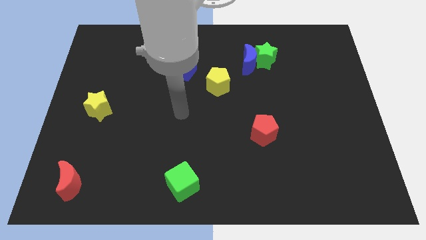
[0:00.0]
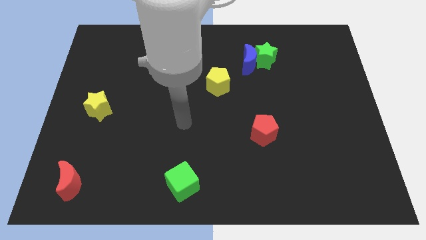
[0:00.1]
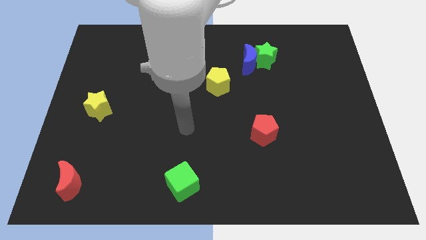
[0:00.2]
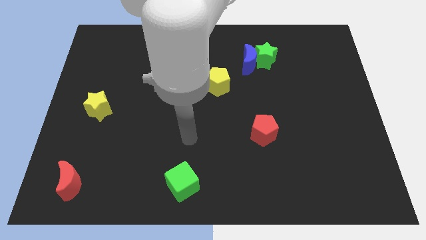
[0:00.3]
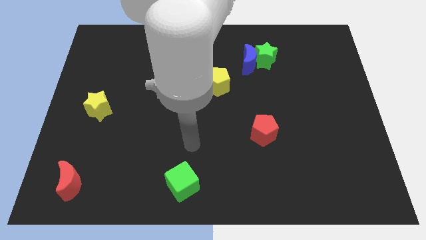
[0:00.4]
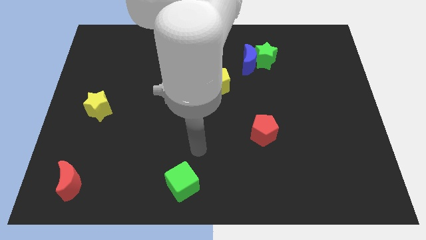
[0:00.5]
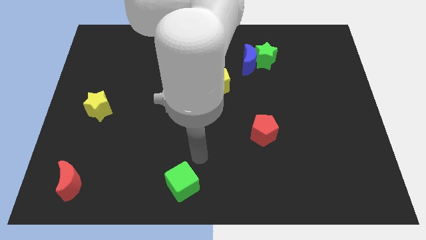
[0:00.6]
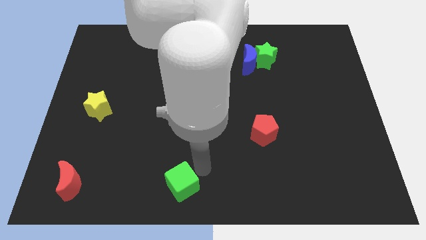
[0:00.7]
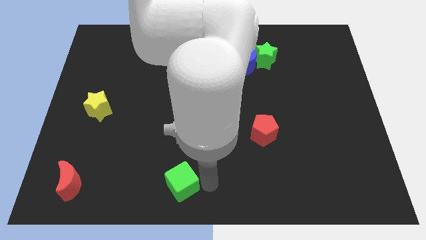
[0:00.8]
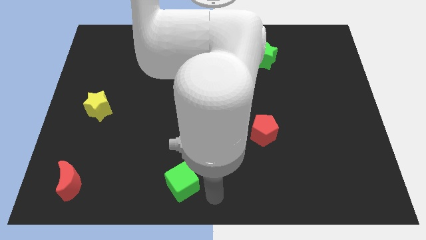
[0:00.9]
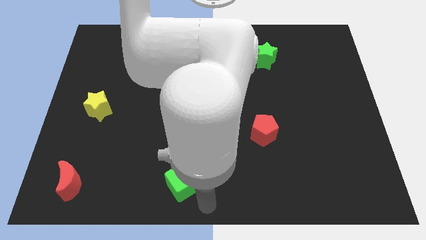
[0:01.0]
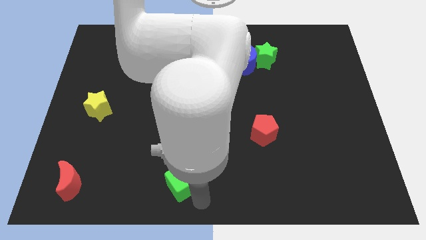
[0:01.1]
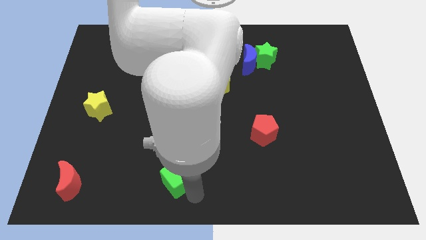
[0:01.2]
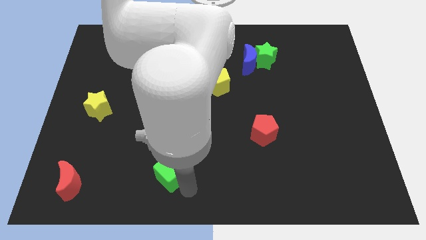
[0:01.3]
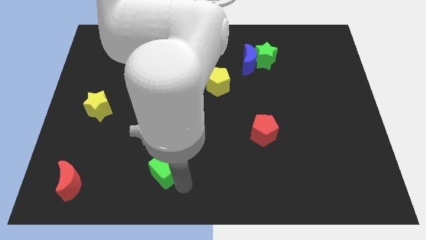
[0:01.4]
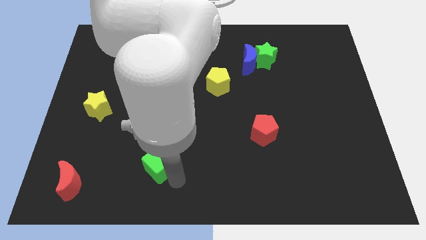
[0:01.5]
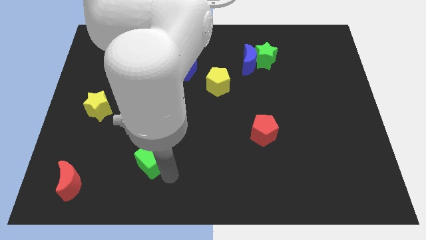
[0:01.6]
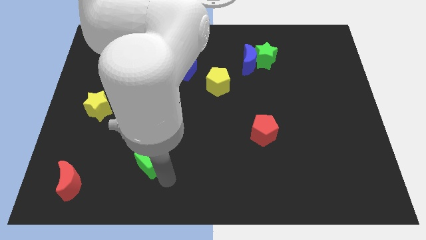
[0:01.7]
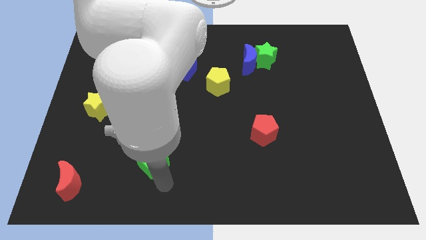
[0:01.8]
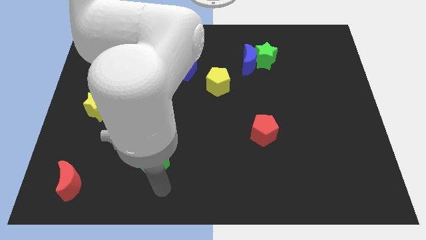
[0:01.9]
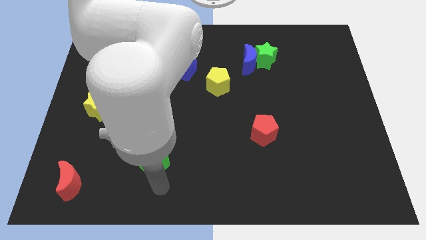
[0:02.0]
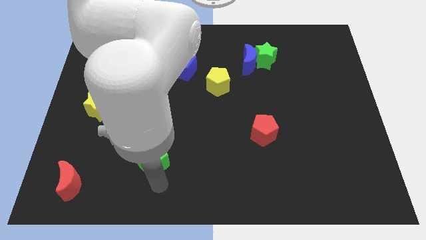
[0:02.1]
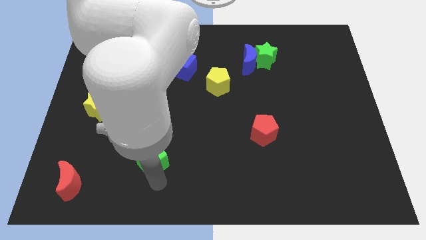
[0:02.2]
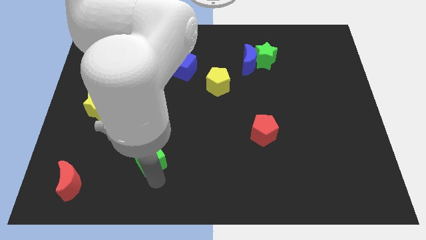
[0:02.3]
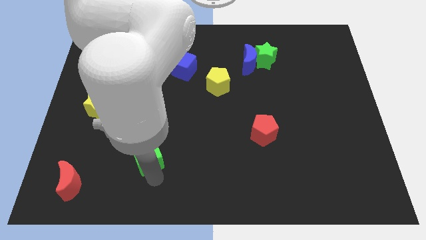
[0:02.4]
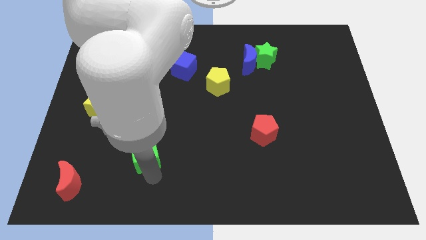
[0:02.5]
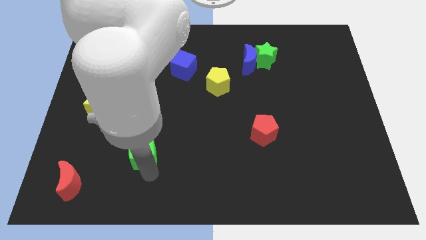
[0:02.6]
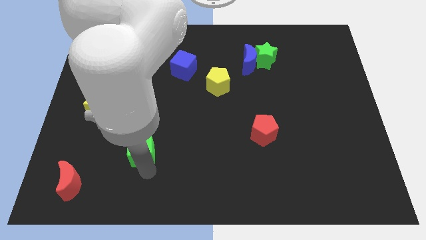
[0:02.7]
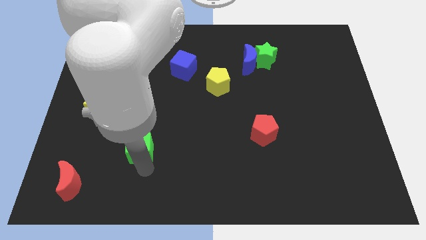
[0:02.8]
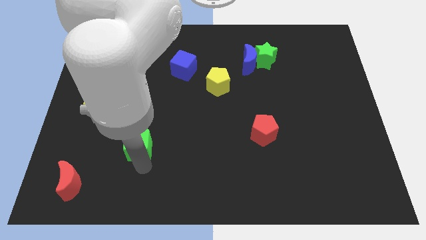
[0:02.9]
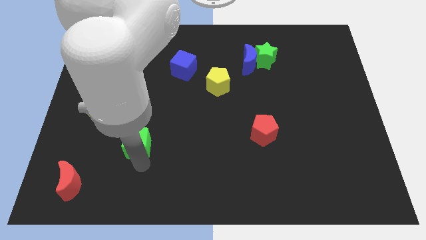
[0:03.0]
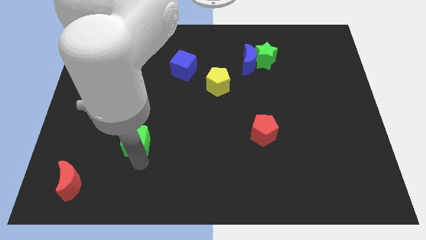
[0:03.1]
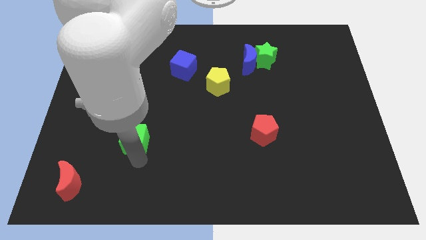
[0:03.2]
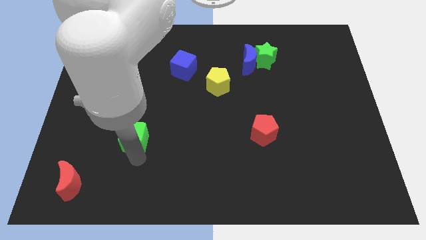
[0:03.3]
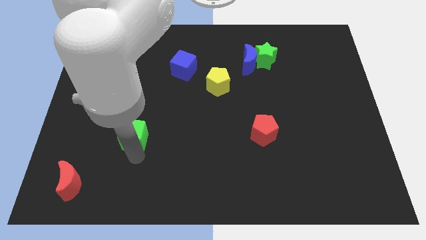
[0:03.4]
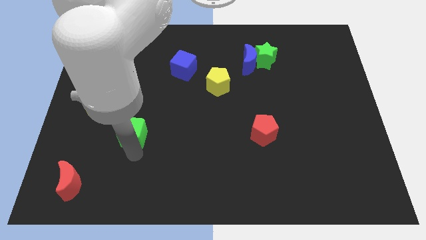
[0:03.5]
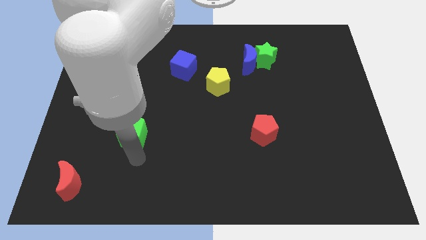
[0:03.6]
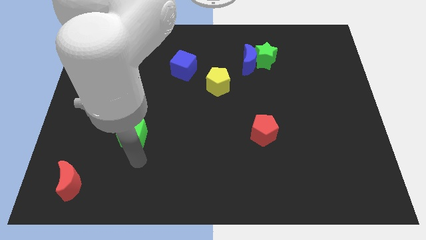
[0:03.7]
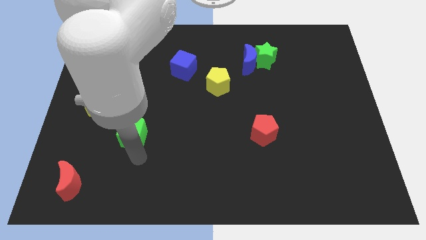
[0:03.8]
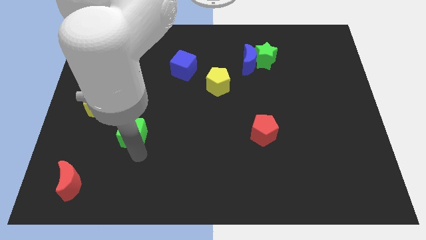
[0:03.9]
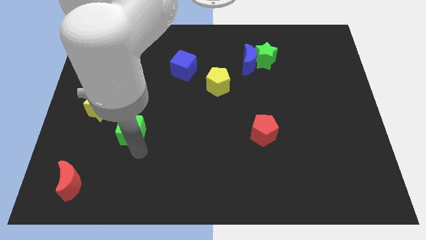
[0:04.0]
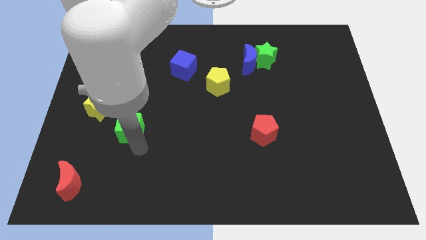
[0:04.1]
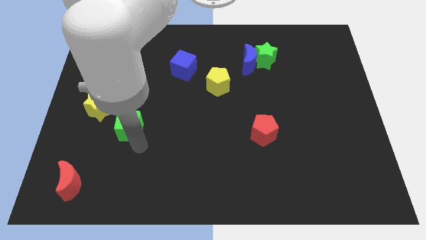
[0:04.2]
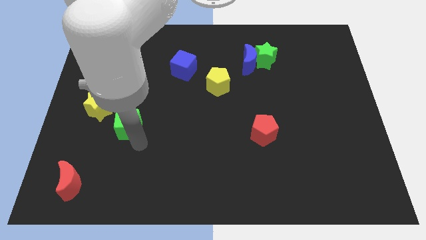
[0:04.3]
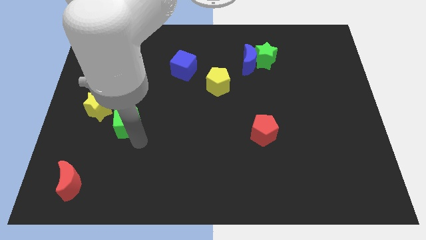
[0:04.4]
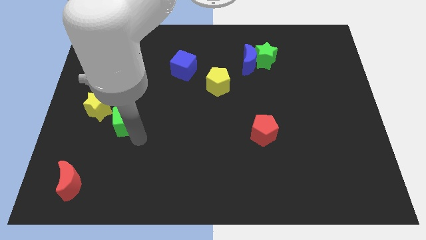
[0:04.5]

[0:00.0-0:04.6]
push the green cube up and then left

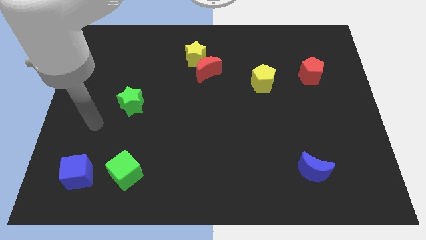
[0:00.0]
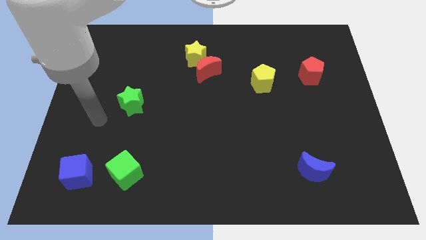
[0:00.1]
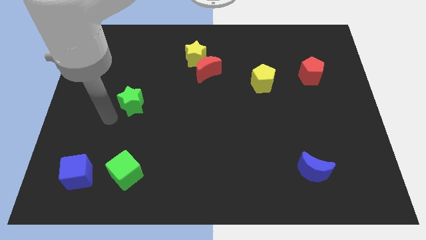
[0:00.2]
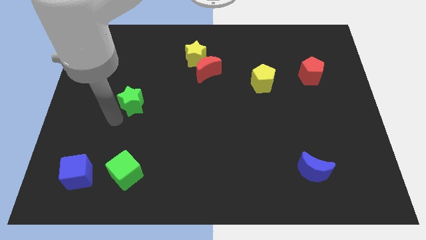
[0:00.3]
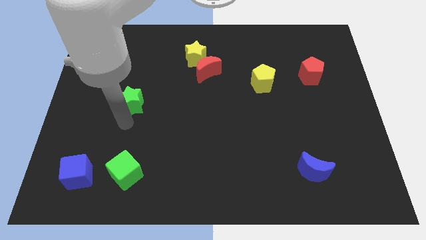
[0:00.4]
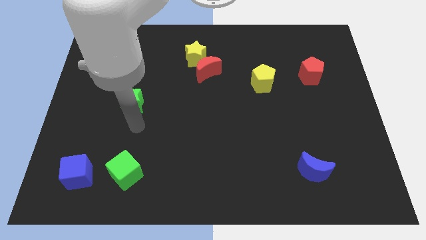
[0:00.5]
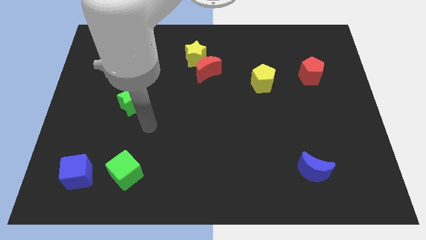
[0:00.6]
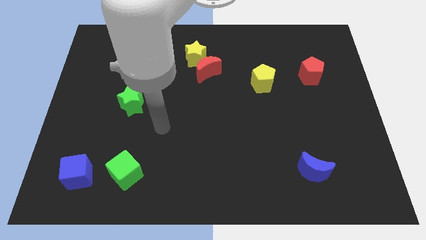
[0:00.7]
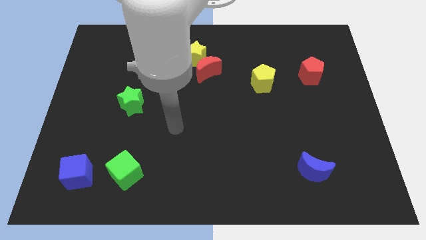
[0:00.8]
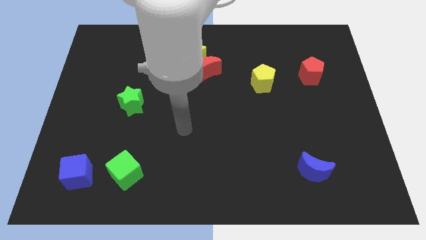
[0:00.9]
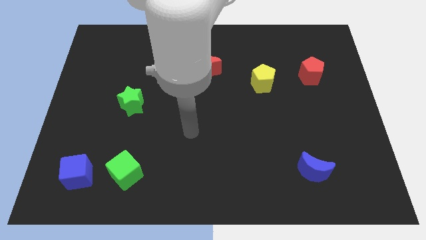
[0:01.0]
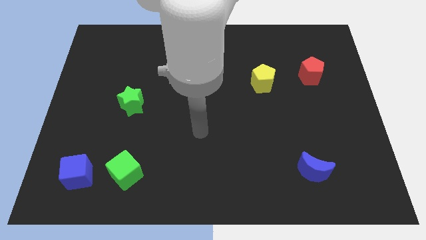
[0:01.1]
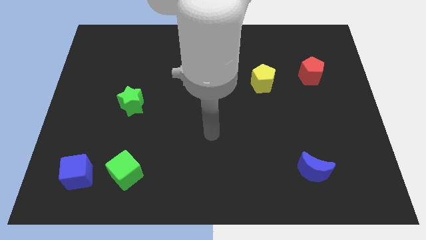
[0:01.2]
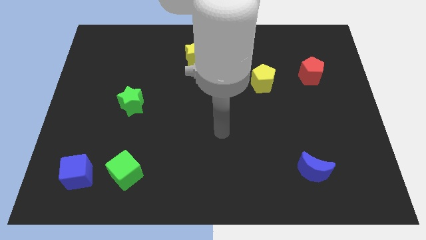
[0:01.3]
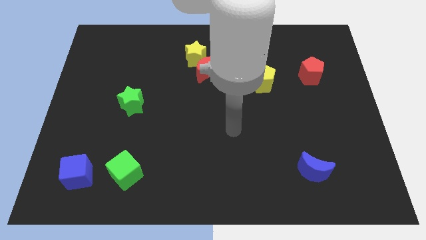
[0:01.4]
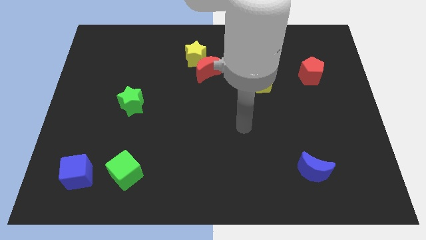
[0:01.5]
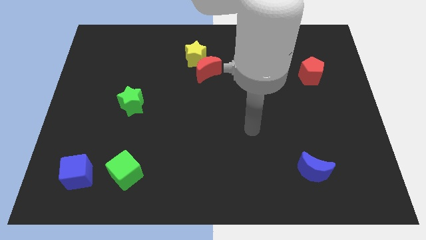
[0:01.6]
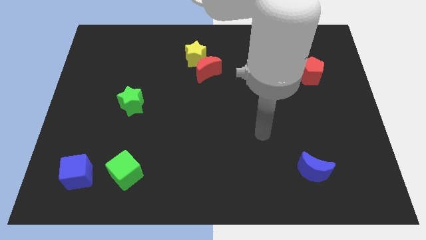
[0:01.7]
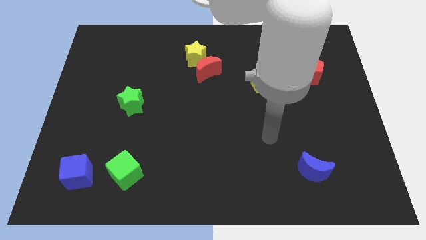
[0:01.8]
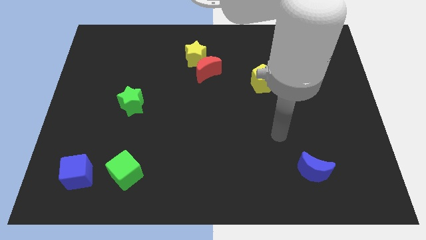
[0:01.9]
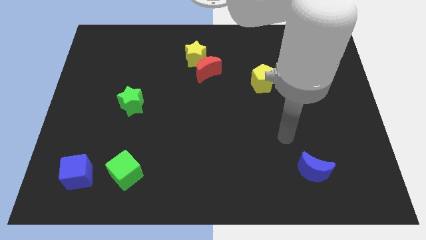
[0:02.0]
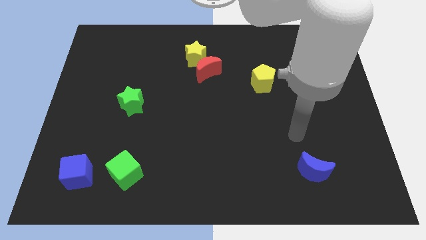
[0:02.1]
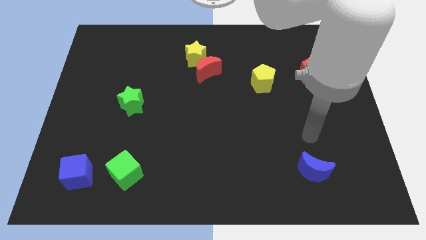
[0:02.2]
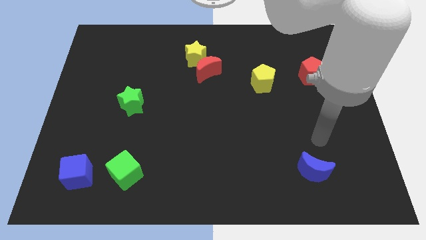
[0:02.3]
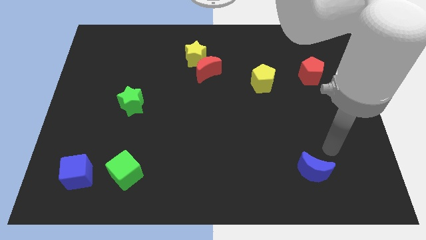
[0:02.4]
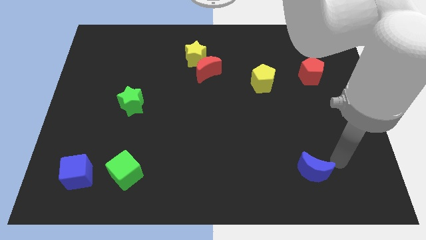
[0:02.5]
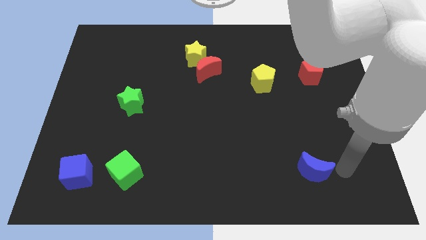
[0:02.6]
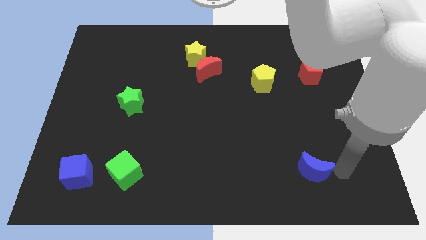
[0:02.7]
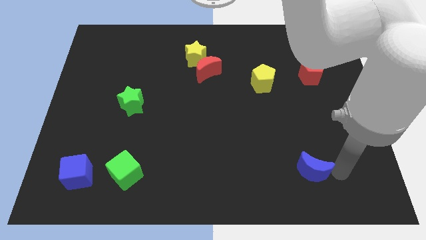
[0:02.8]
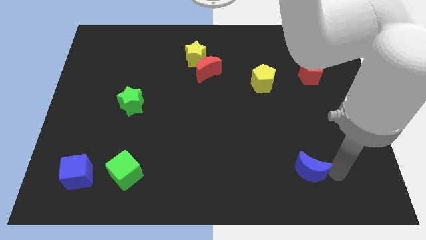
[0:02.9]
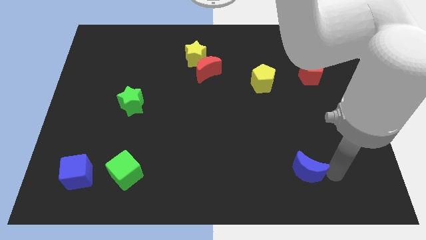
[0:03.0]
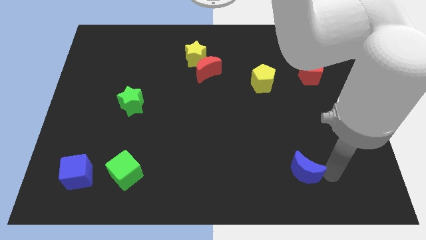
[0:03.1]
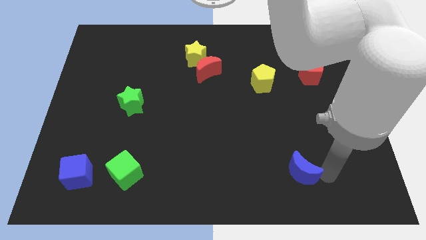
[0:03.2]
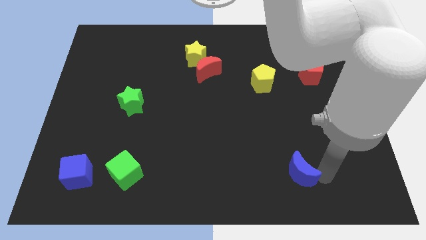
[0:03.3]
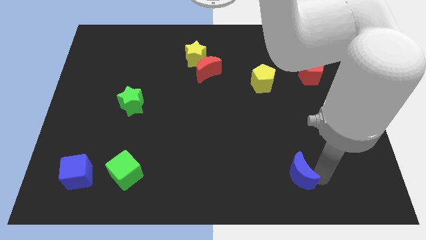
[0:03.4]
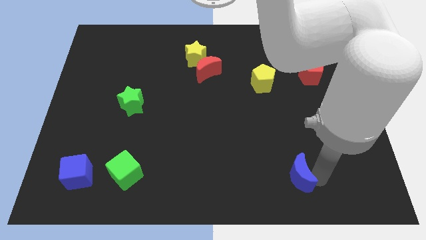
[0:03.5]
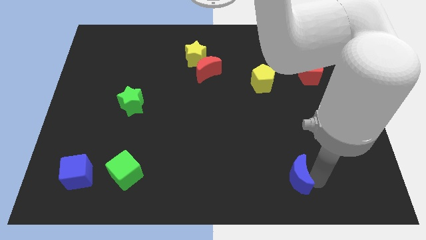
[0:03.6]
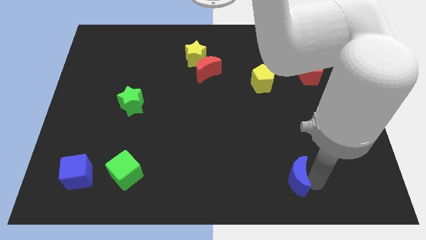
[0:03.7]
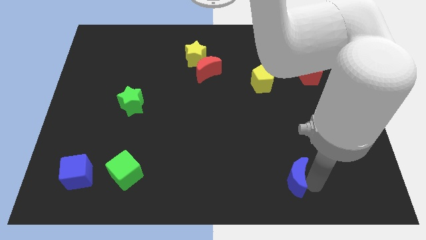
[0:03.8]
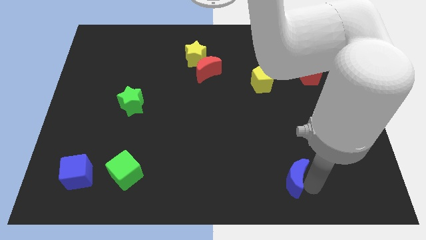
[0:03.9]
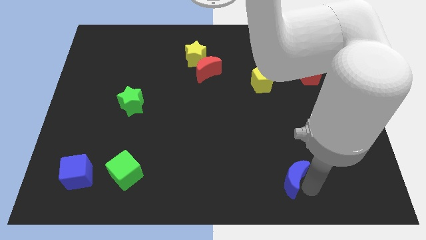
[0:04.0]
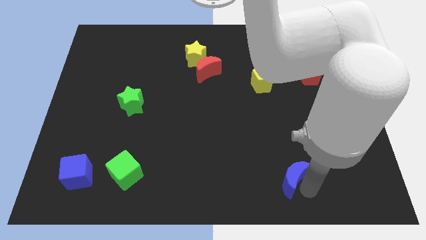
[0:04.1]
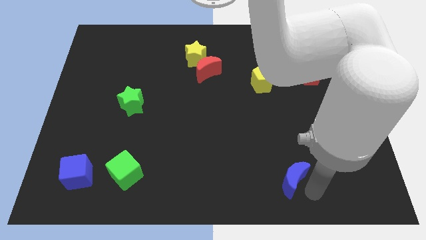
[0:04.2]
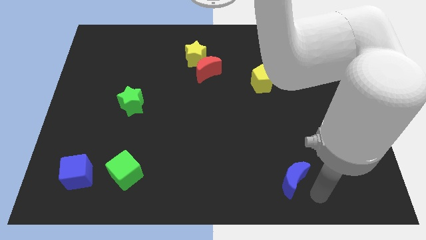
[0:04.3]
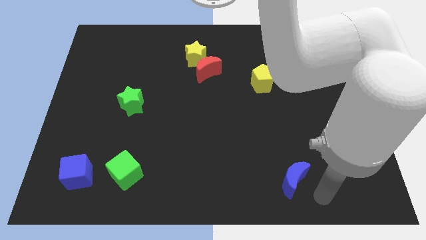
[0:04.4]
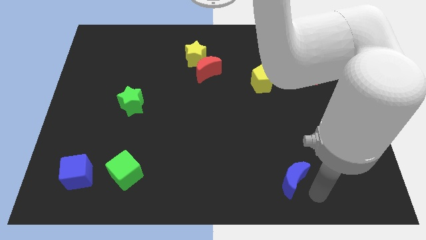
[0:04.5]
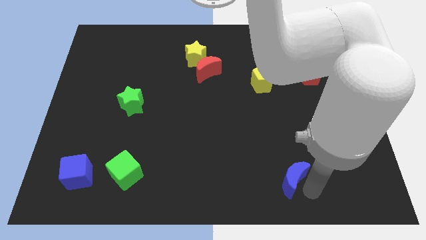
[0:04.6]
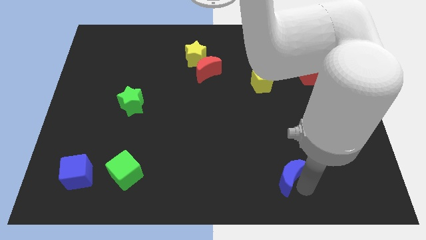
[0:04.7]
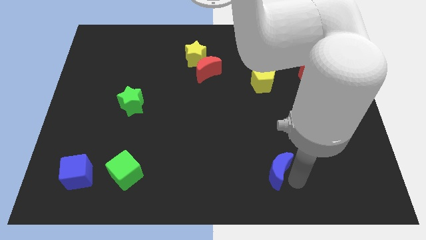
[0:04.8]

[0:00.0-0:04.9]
move the blue moon to the left slightly
